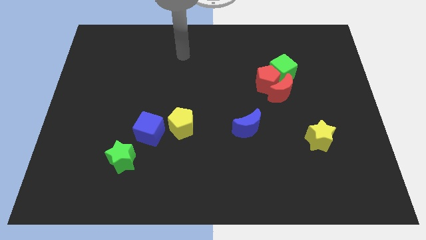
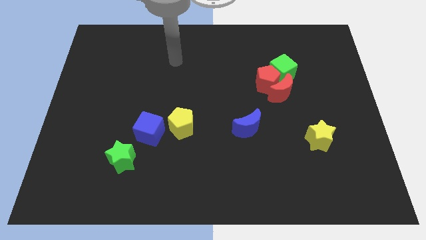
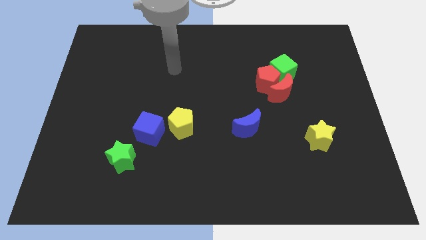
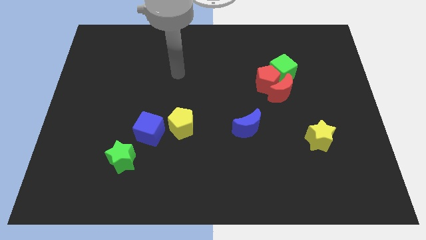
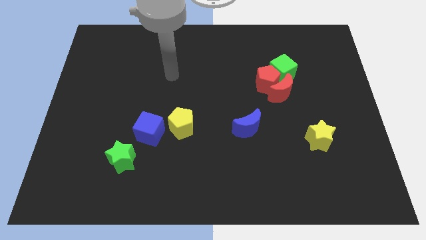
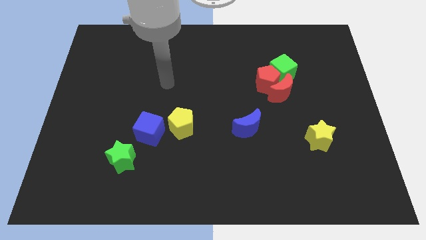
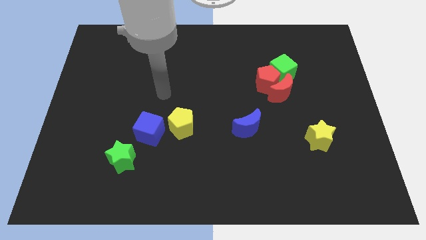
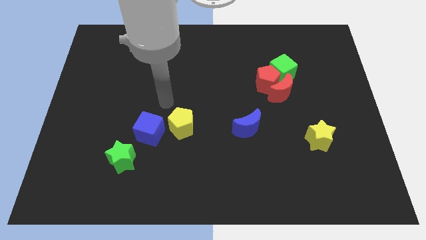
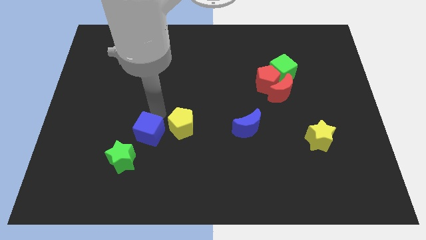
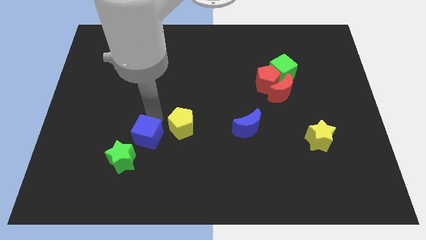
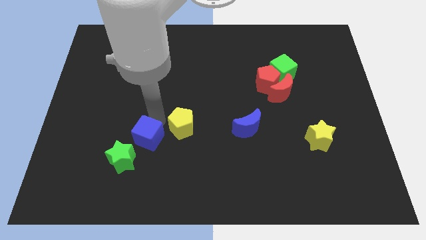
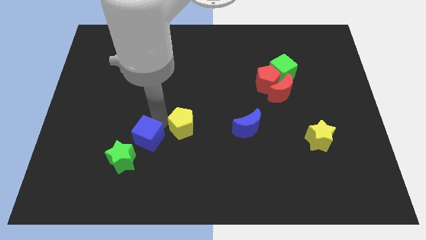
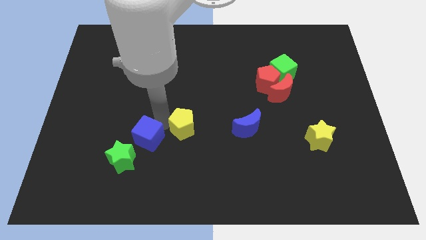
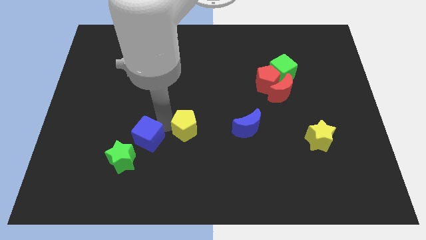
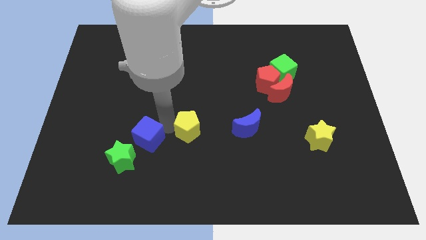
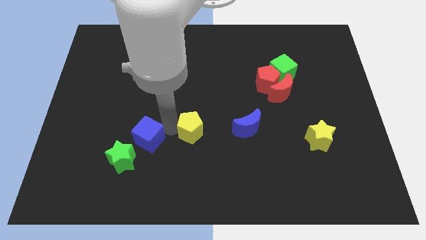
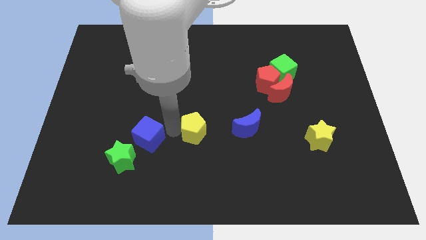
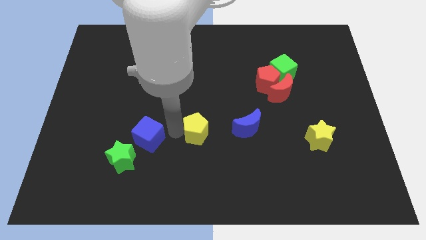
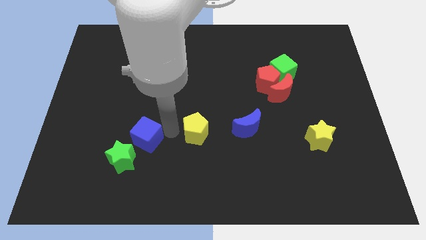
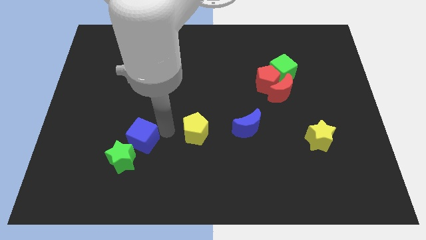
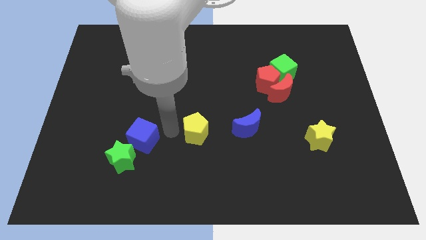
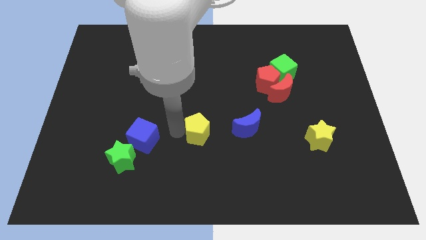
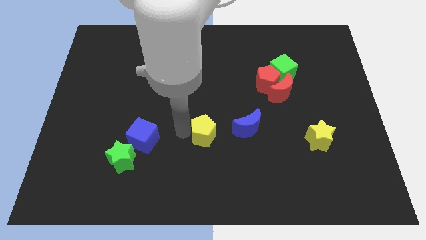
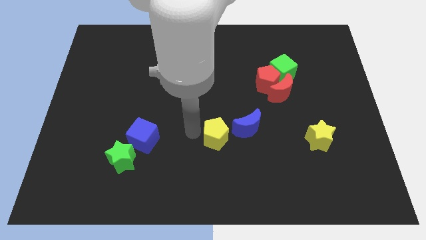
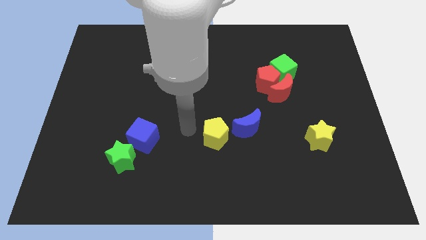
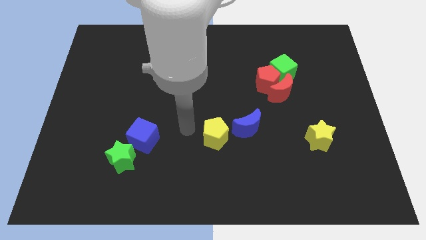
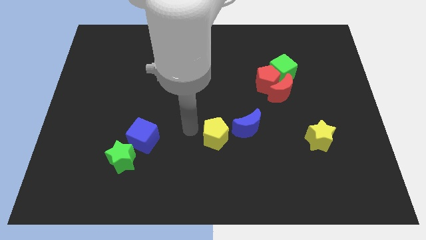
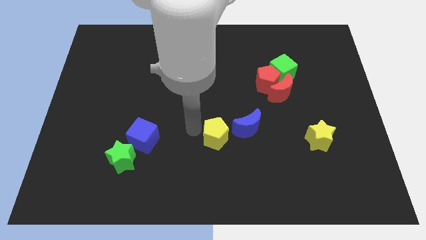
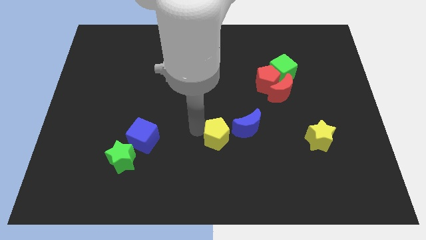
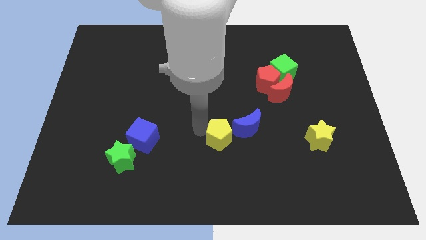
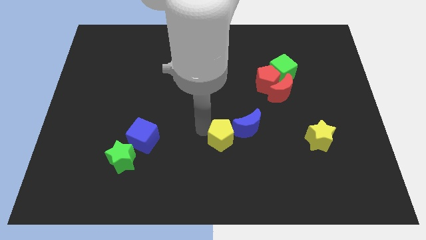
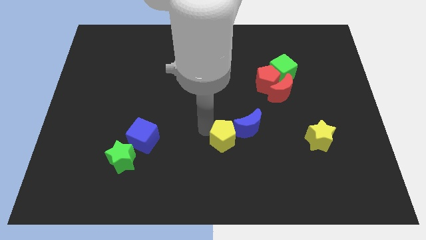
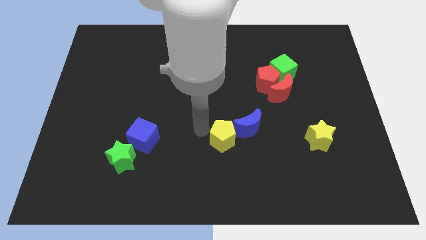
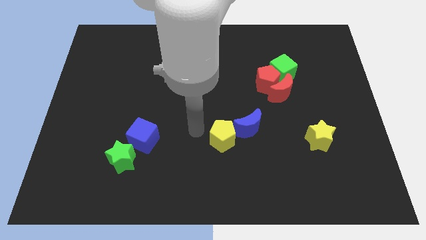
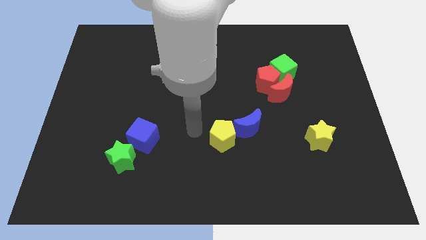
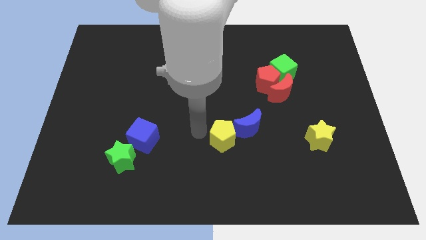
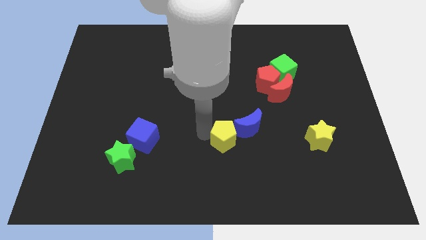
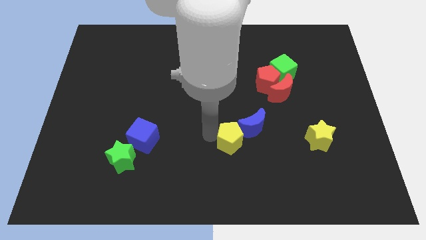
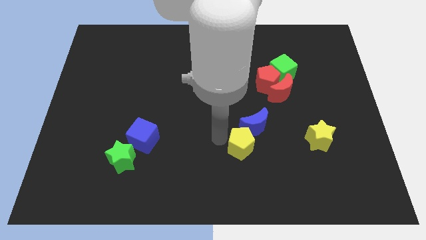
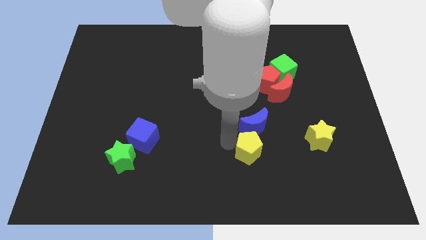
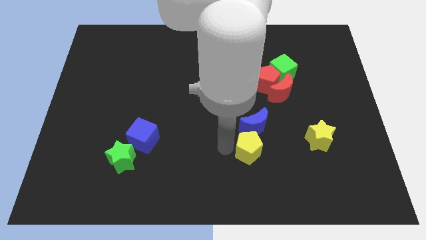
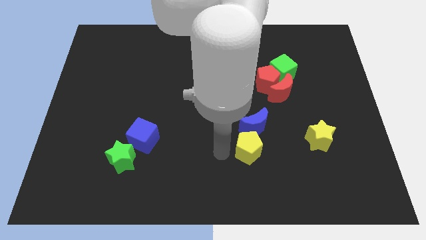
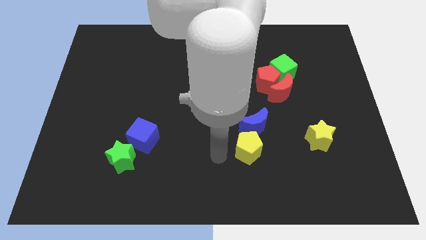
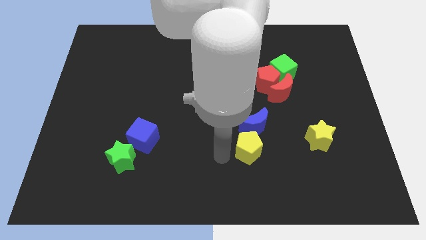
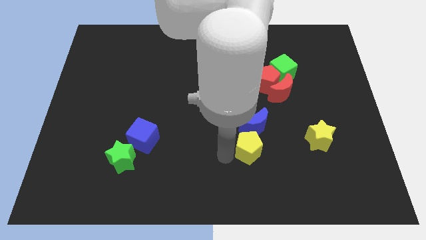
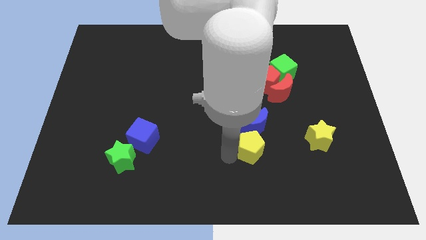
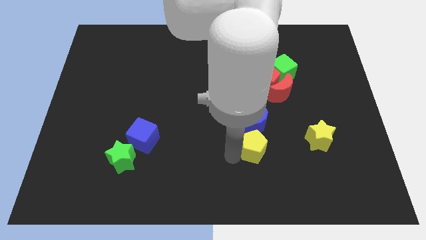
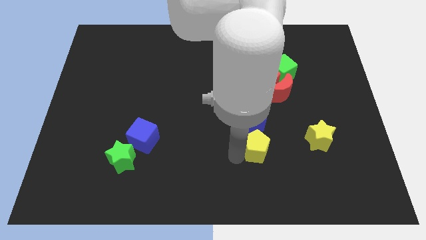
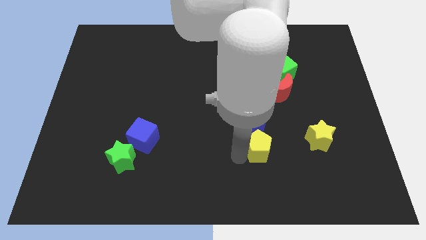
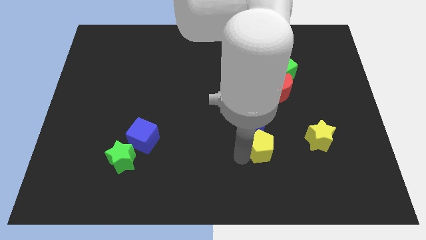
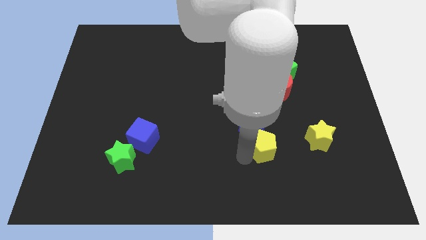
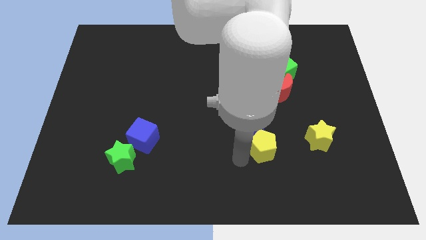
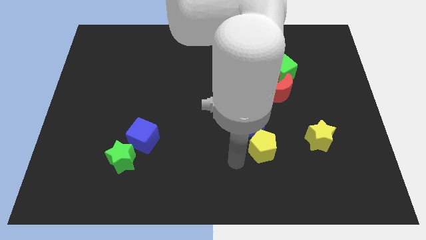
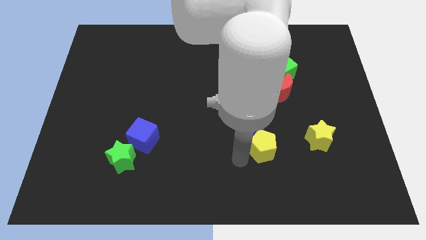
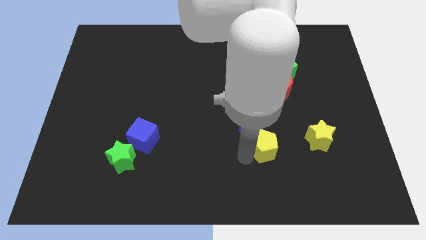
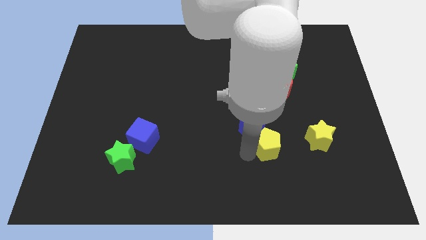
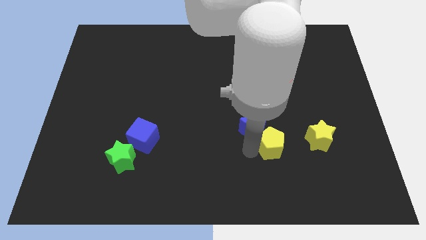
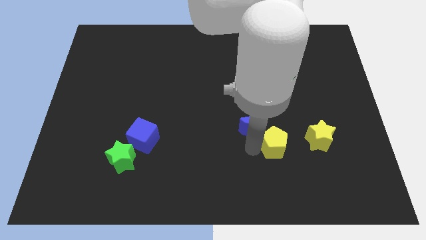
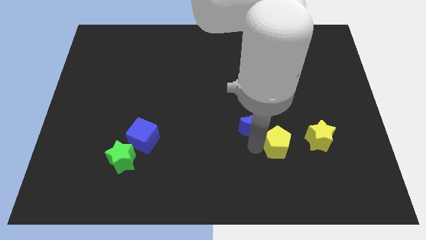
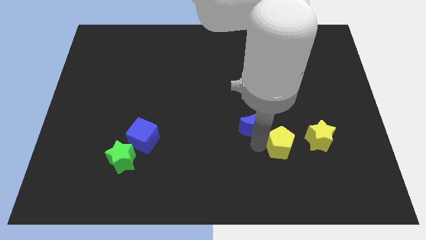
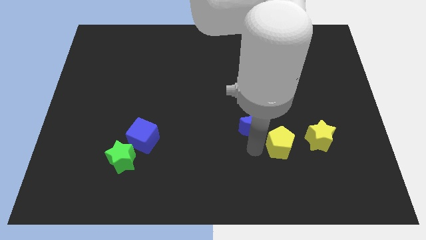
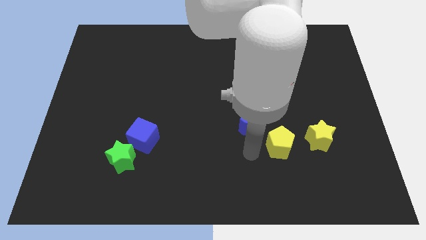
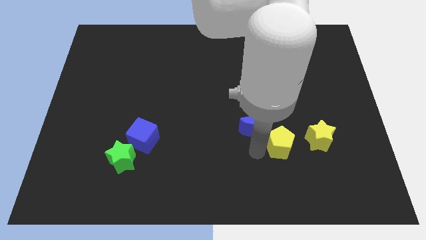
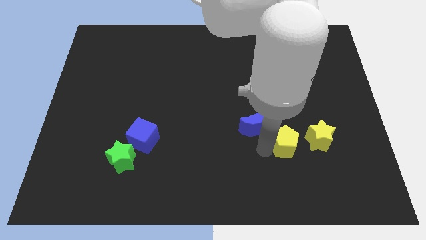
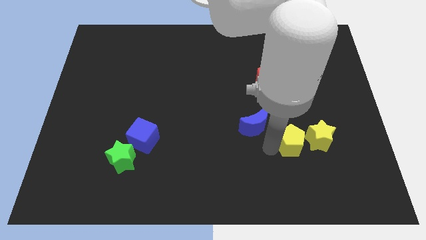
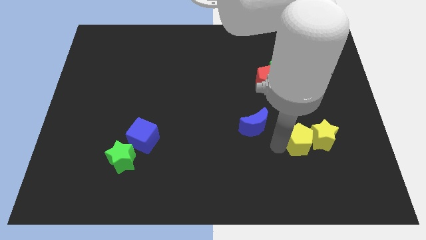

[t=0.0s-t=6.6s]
move the yellow pentagon to the yellow star
